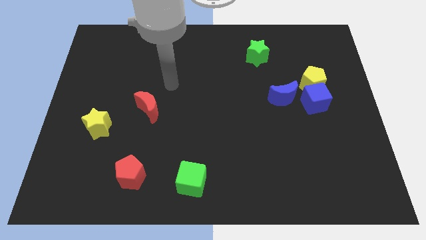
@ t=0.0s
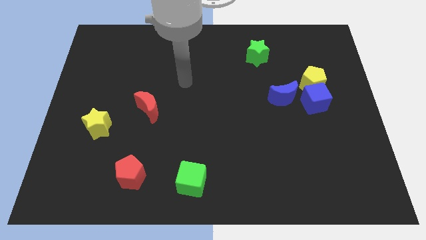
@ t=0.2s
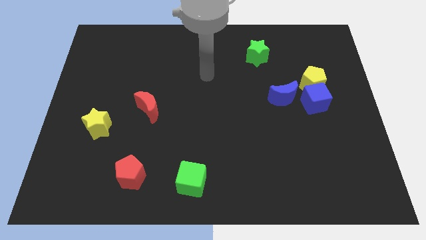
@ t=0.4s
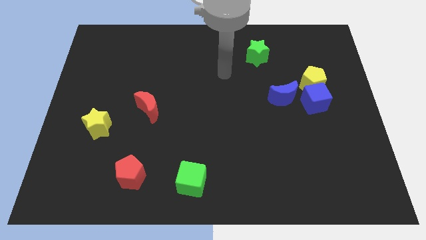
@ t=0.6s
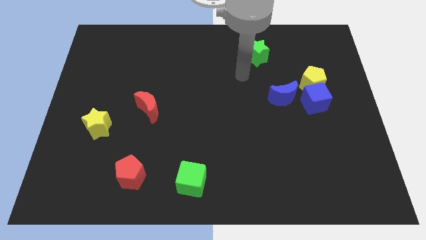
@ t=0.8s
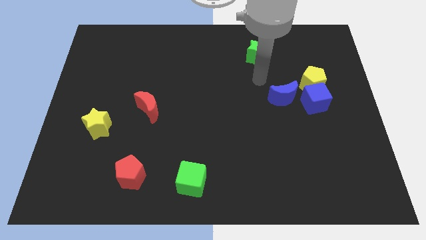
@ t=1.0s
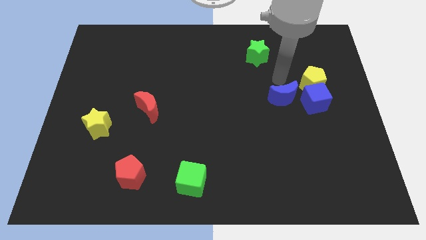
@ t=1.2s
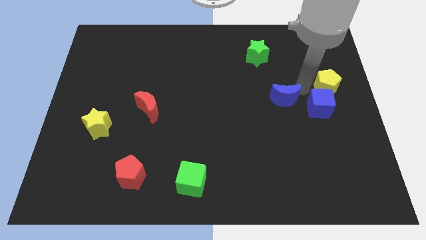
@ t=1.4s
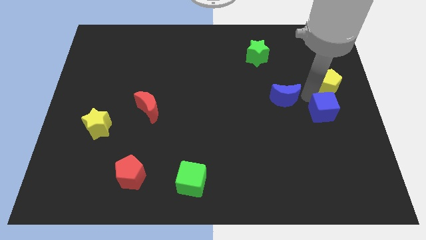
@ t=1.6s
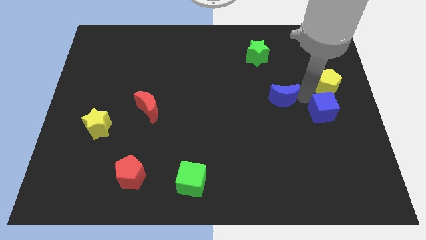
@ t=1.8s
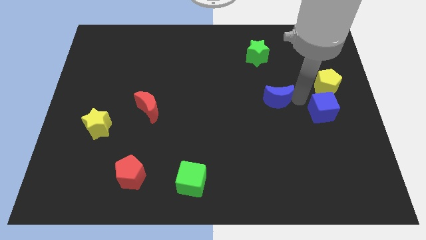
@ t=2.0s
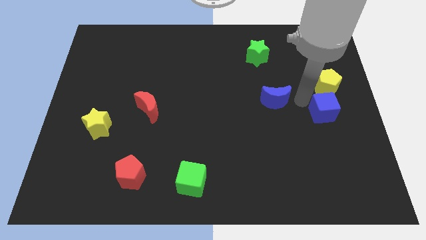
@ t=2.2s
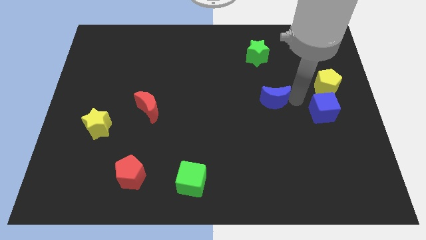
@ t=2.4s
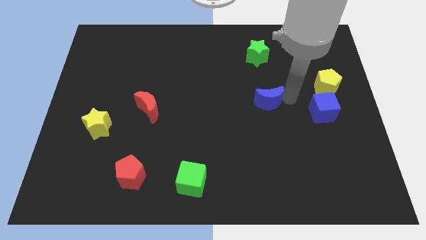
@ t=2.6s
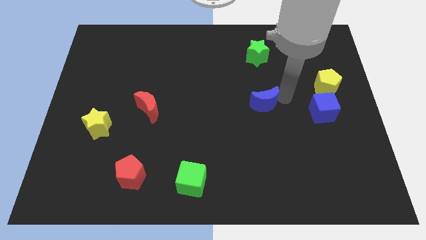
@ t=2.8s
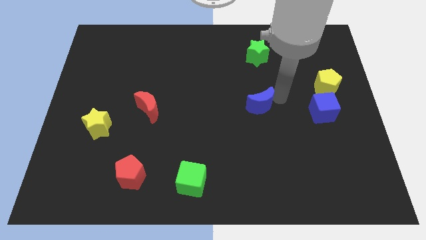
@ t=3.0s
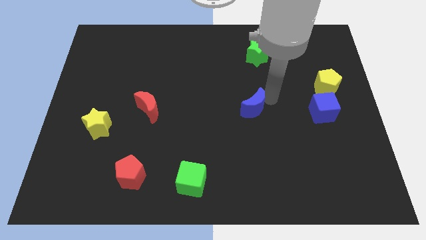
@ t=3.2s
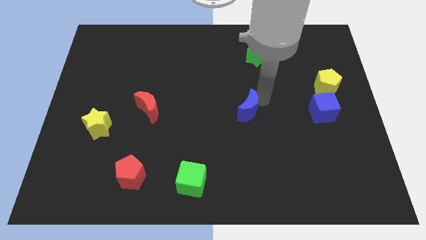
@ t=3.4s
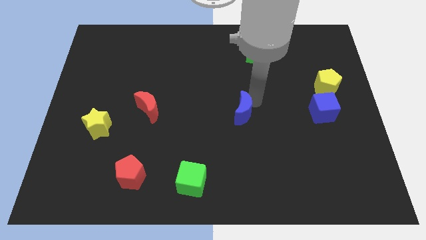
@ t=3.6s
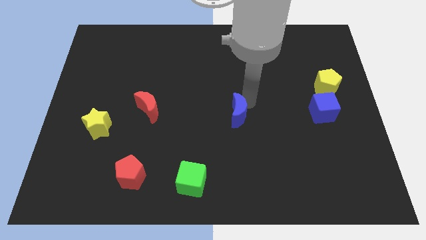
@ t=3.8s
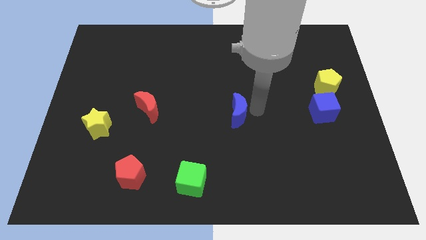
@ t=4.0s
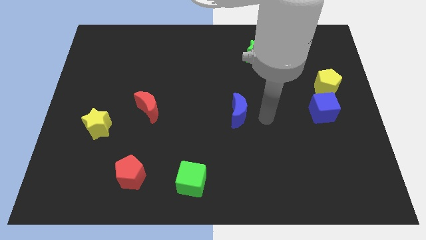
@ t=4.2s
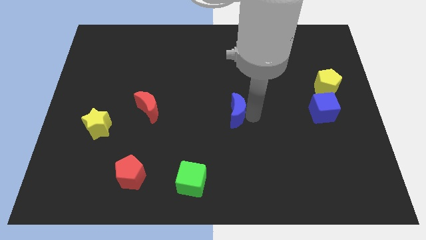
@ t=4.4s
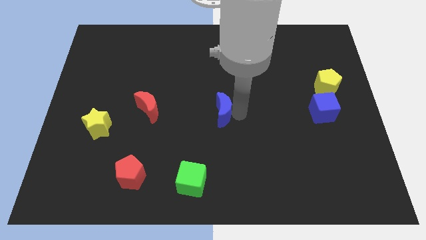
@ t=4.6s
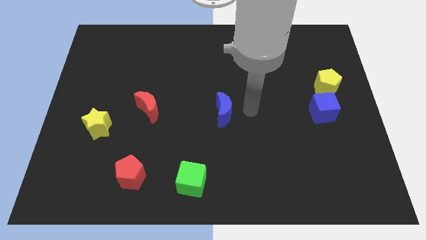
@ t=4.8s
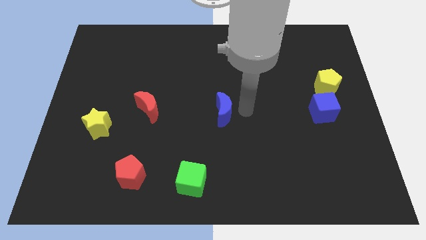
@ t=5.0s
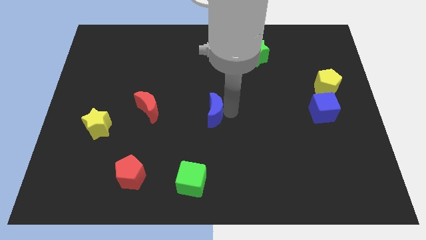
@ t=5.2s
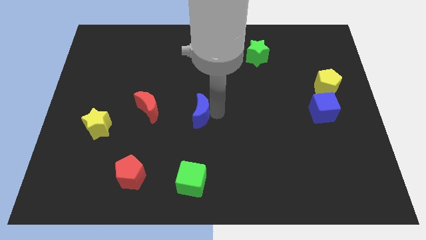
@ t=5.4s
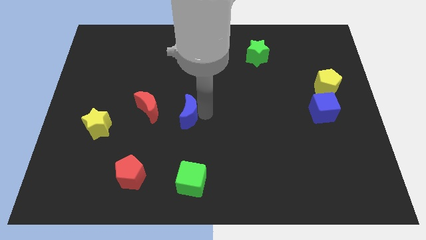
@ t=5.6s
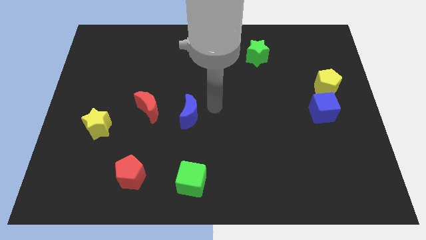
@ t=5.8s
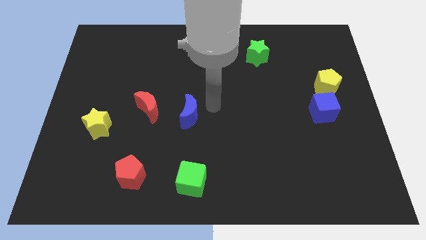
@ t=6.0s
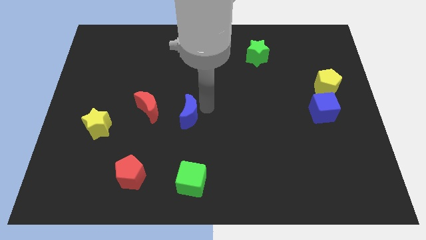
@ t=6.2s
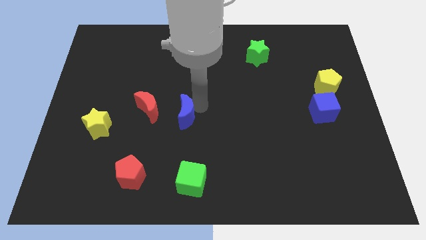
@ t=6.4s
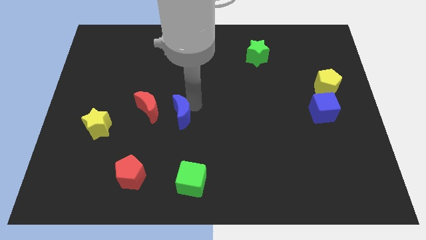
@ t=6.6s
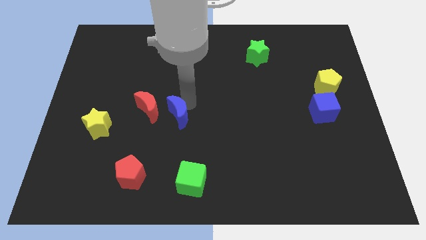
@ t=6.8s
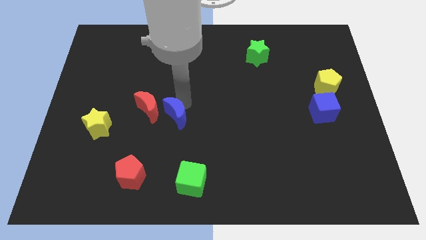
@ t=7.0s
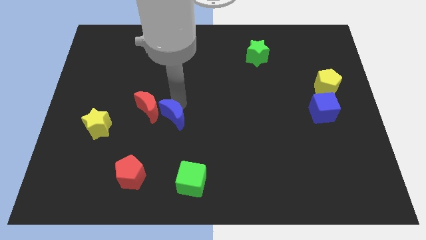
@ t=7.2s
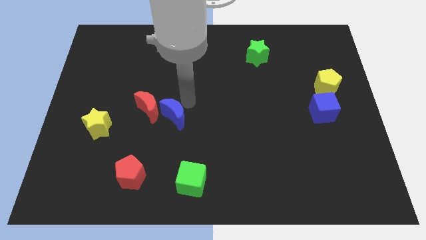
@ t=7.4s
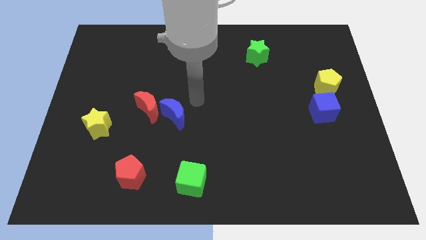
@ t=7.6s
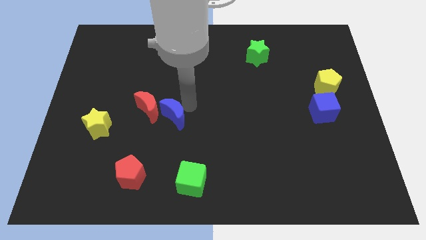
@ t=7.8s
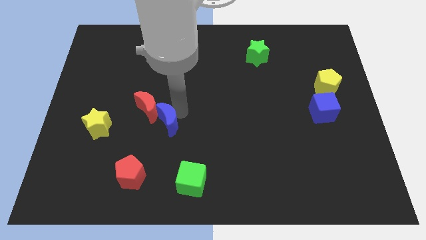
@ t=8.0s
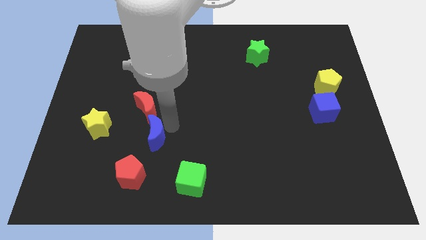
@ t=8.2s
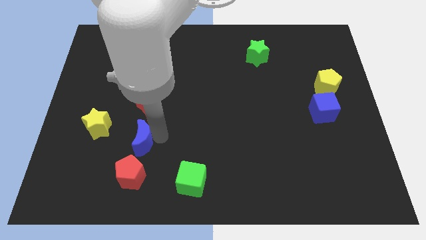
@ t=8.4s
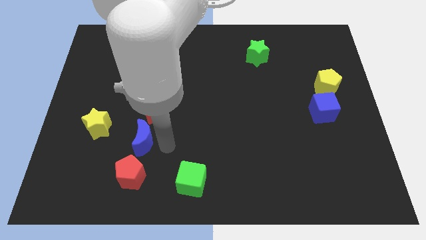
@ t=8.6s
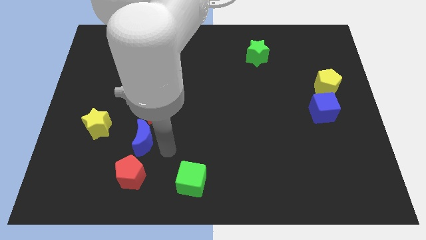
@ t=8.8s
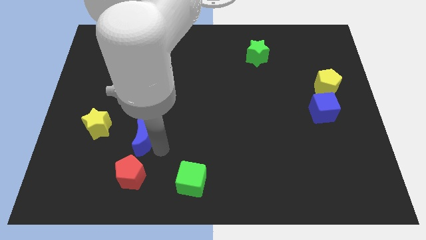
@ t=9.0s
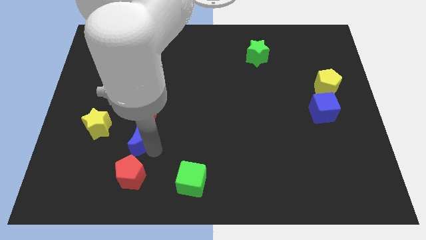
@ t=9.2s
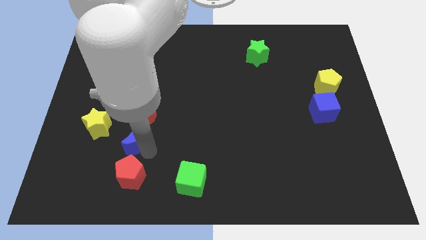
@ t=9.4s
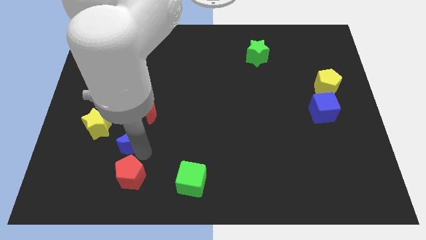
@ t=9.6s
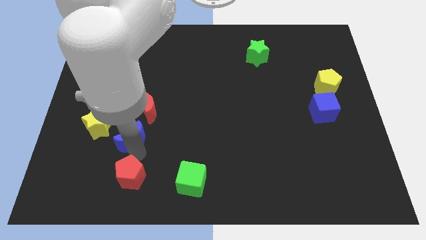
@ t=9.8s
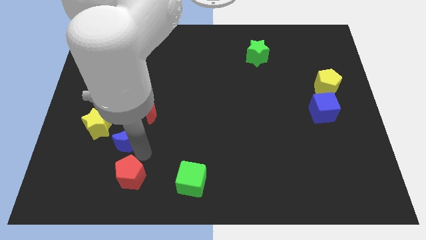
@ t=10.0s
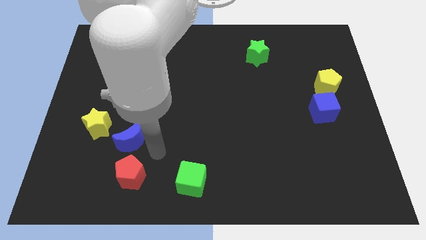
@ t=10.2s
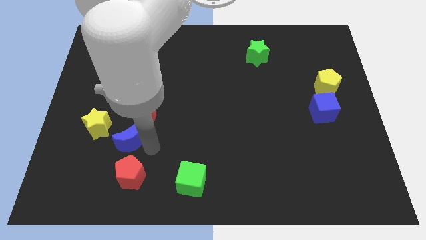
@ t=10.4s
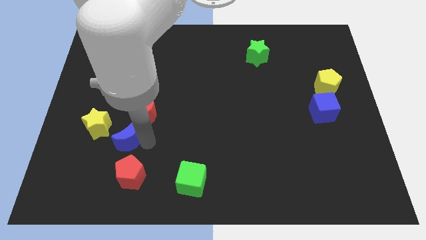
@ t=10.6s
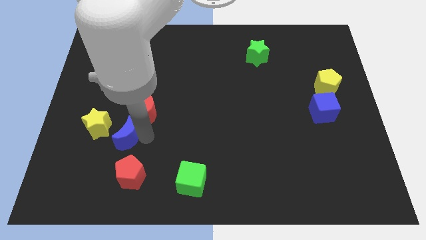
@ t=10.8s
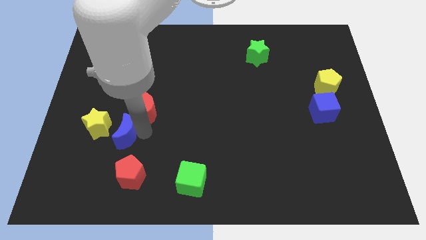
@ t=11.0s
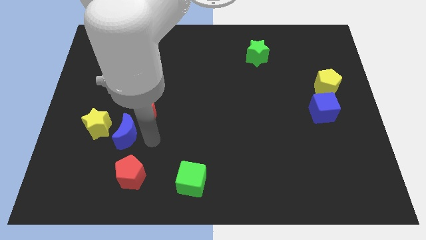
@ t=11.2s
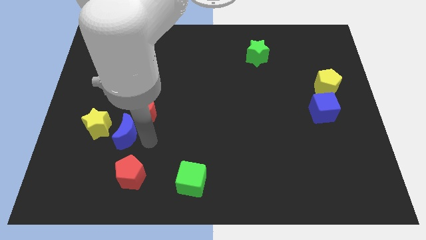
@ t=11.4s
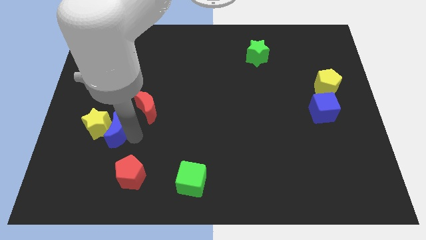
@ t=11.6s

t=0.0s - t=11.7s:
slide the blue moon close to the yellow star

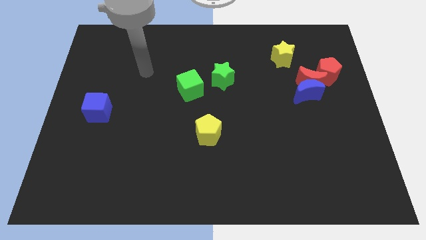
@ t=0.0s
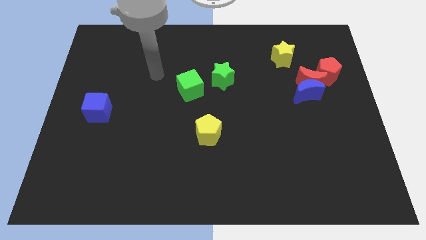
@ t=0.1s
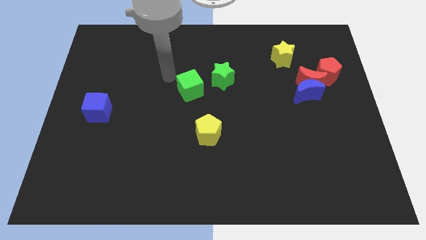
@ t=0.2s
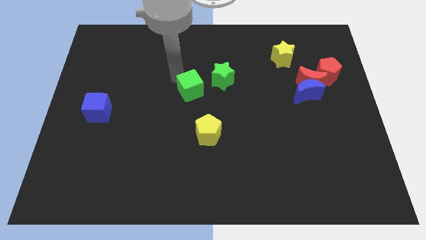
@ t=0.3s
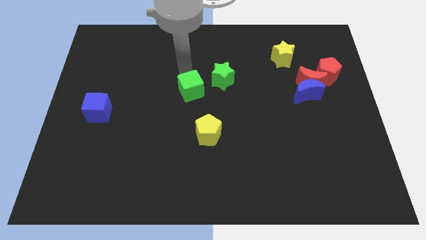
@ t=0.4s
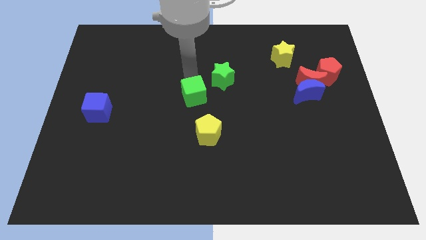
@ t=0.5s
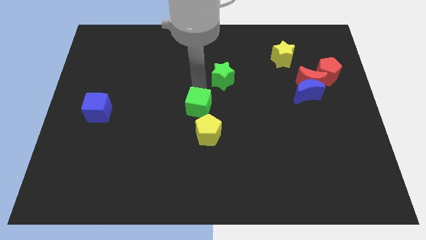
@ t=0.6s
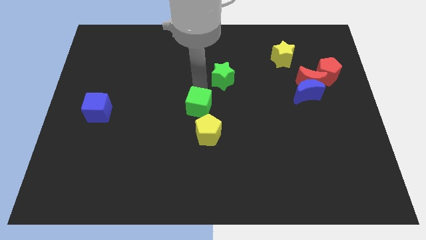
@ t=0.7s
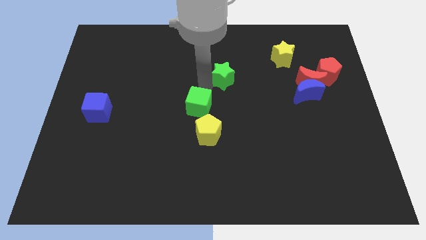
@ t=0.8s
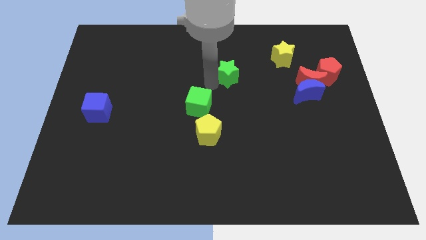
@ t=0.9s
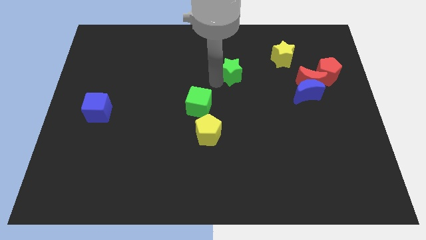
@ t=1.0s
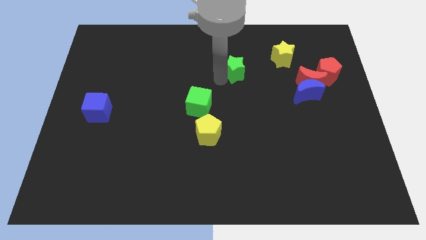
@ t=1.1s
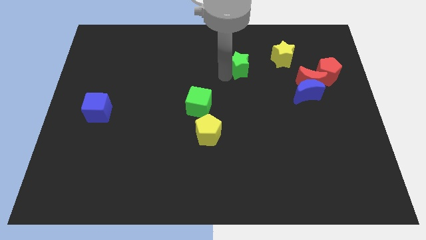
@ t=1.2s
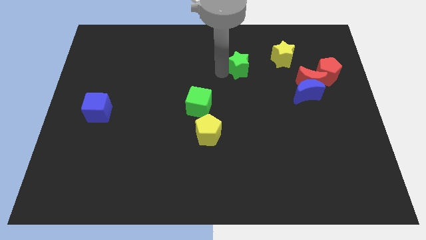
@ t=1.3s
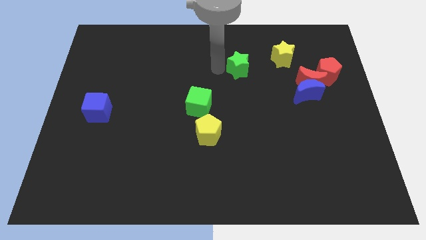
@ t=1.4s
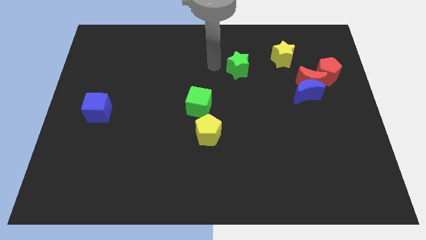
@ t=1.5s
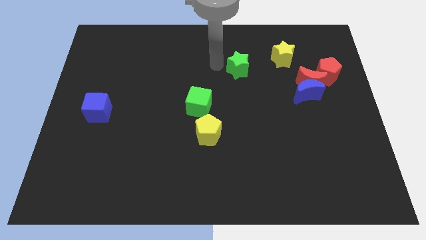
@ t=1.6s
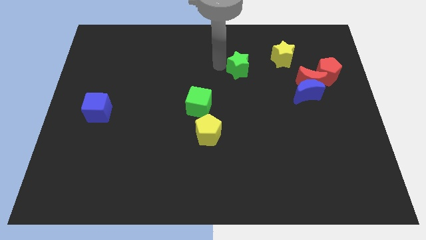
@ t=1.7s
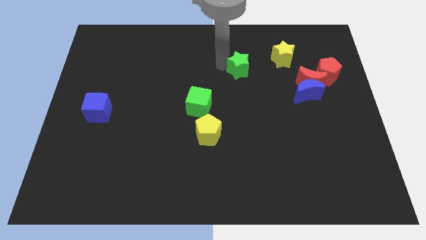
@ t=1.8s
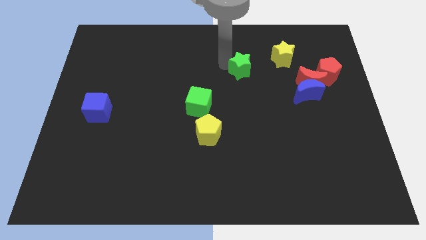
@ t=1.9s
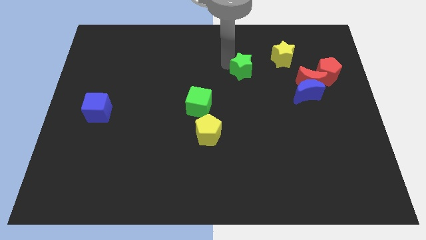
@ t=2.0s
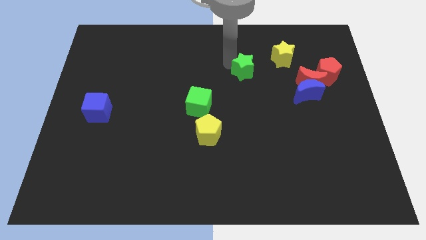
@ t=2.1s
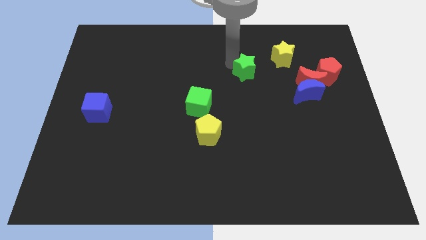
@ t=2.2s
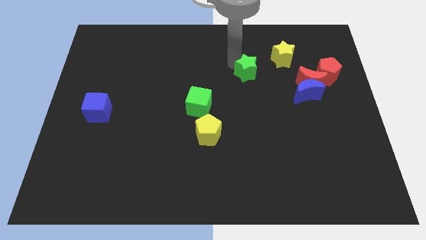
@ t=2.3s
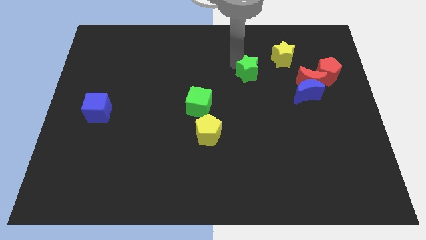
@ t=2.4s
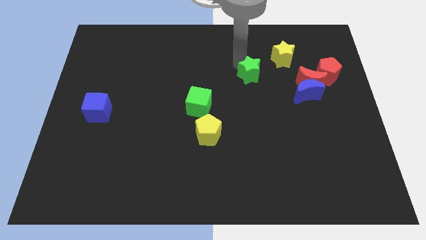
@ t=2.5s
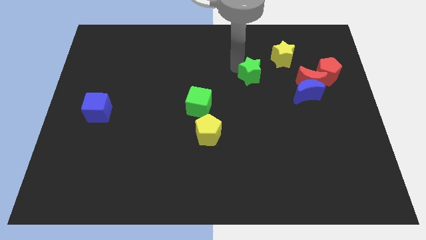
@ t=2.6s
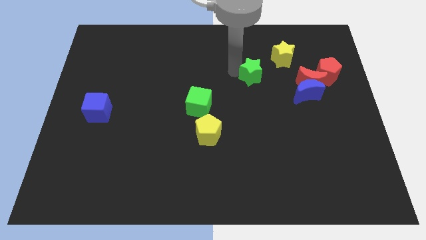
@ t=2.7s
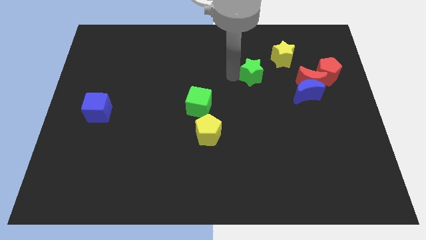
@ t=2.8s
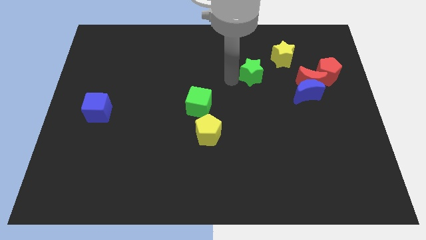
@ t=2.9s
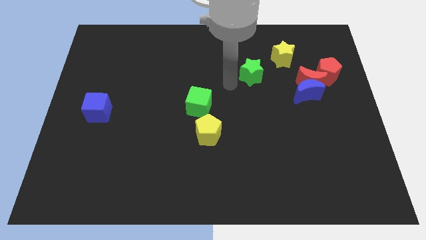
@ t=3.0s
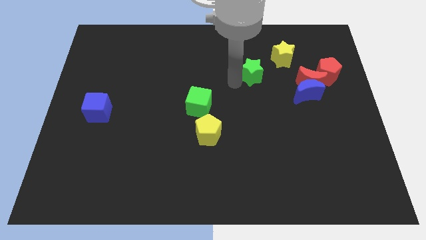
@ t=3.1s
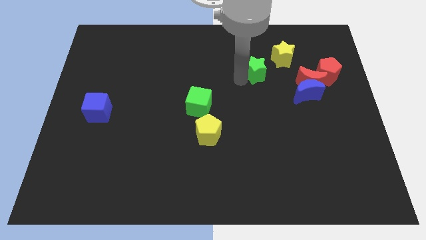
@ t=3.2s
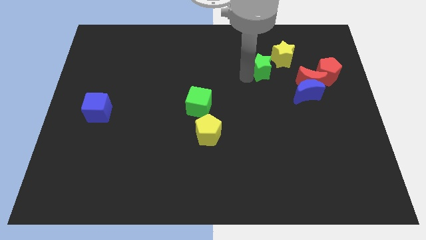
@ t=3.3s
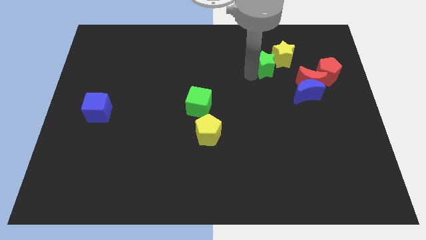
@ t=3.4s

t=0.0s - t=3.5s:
push the green star to the yellow star
